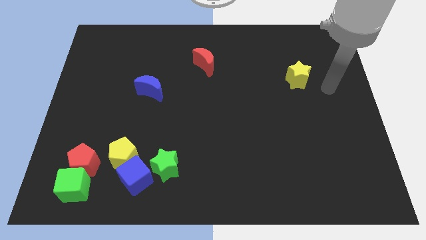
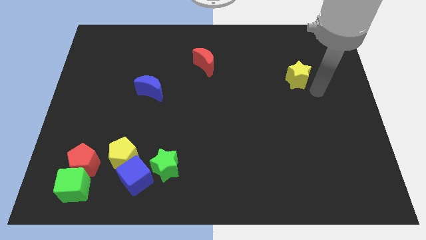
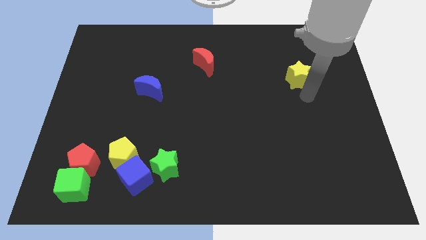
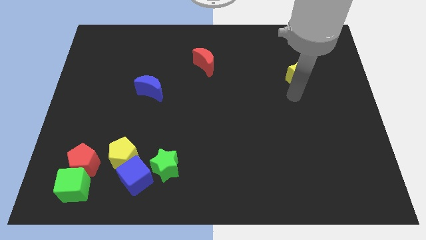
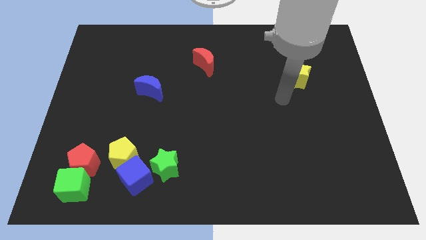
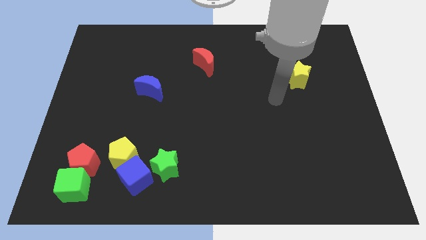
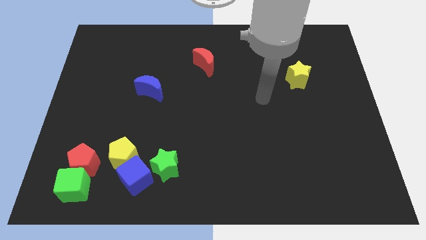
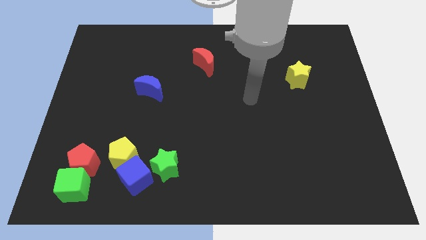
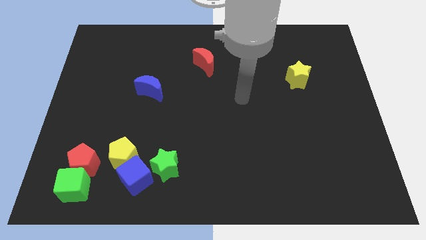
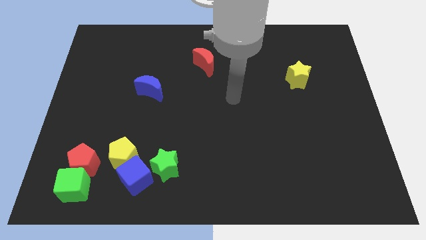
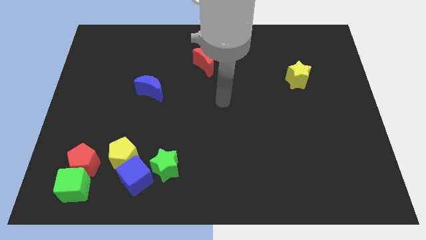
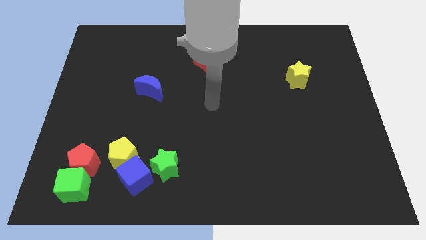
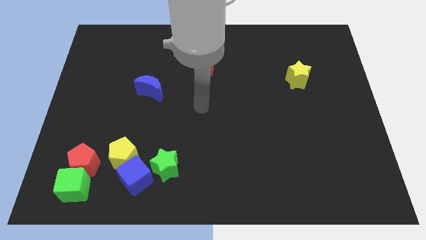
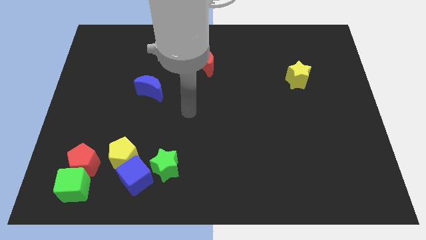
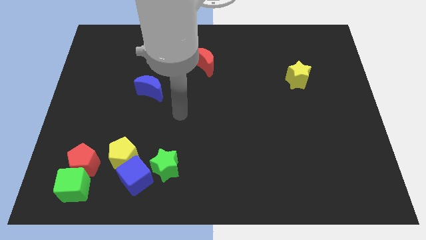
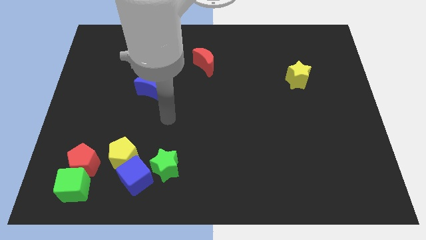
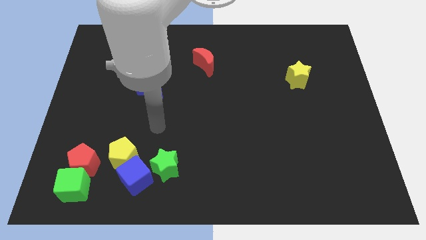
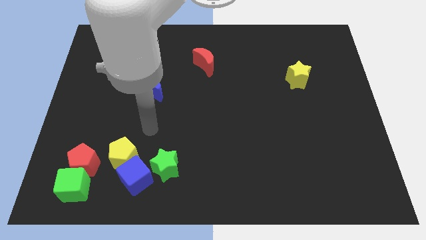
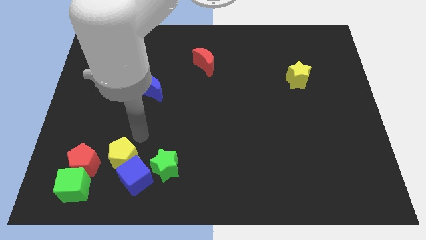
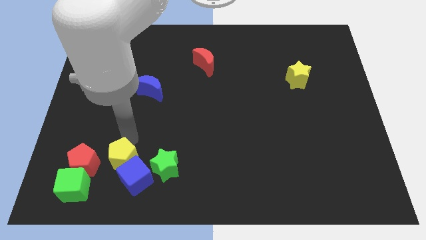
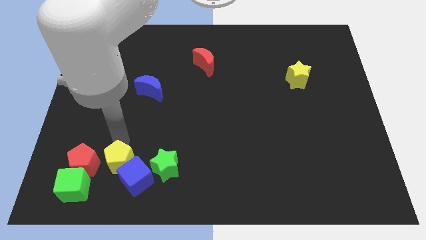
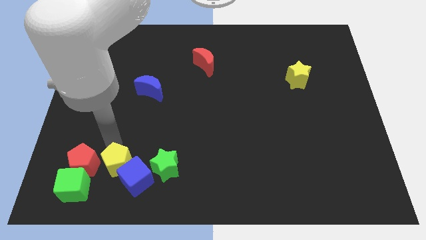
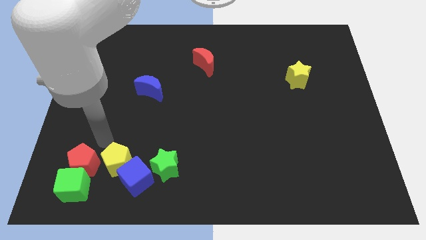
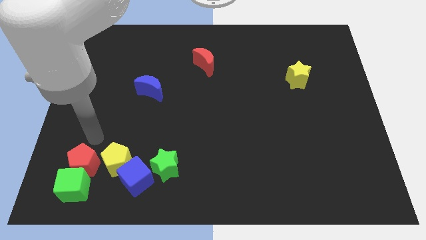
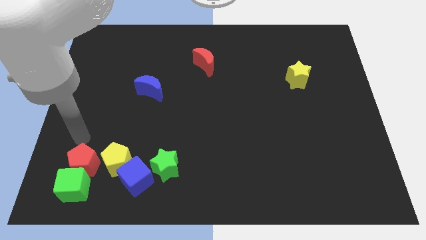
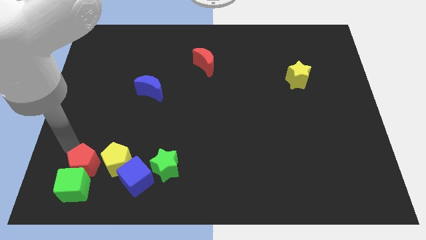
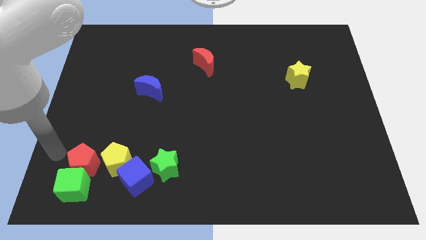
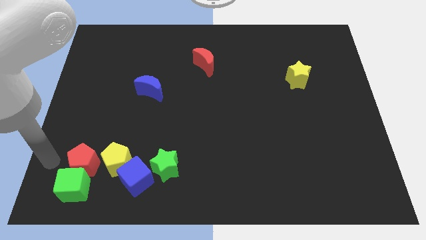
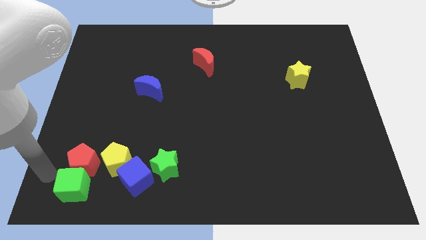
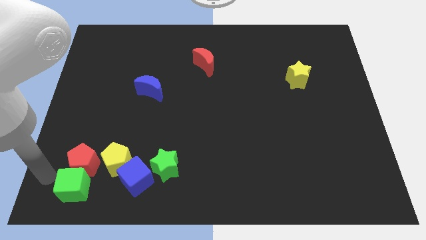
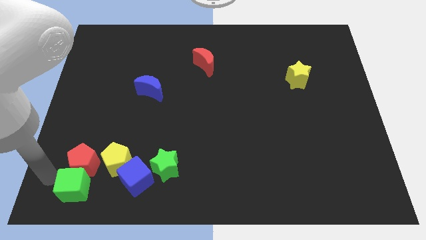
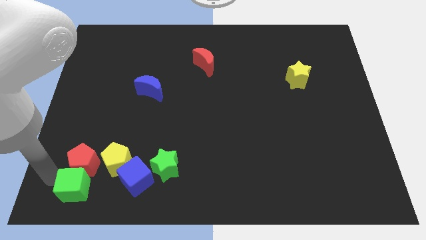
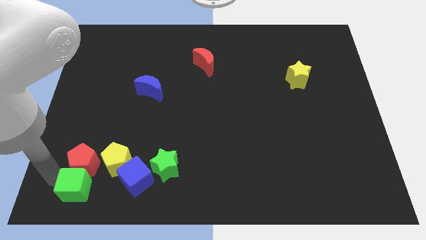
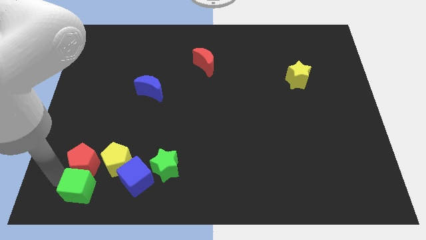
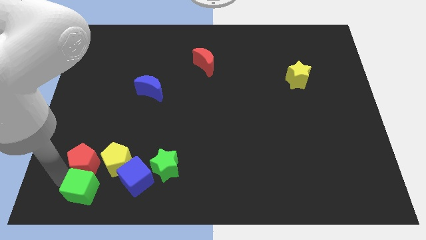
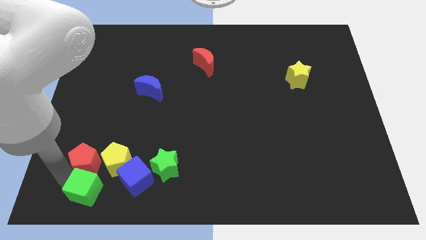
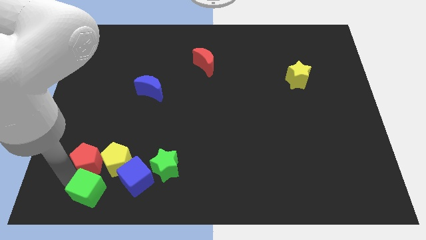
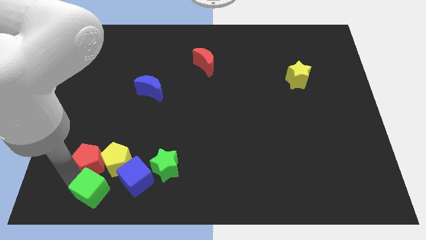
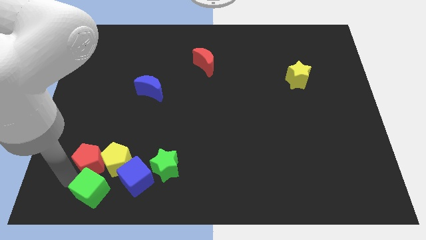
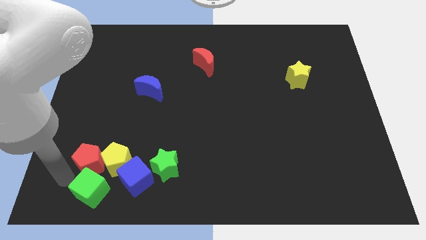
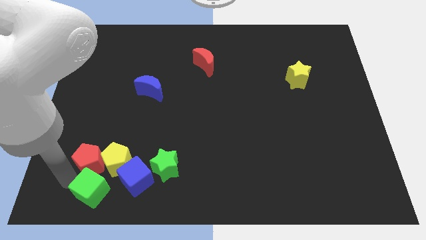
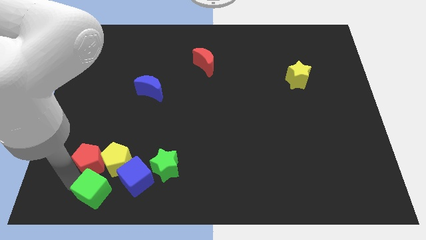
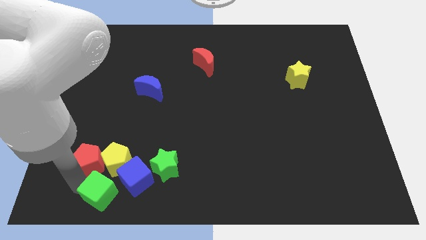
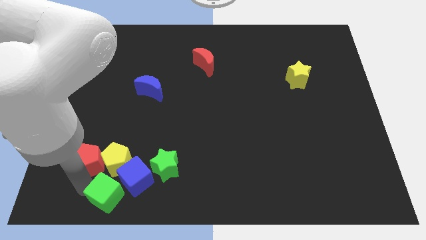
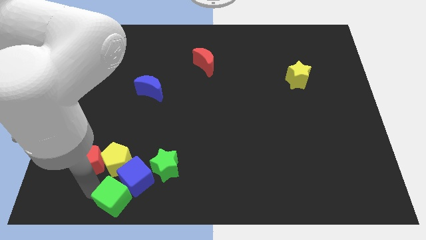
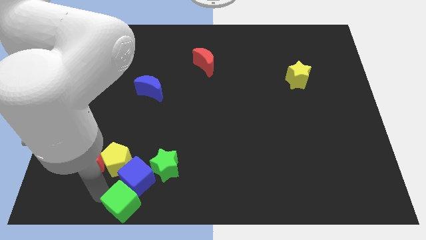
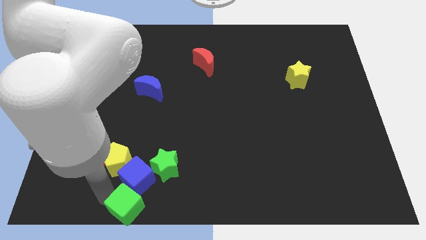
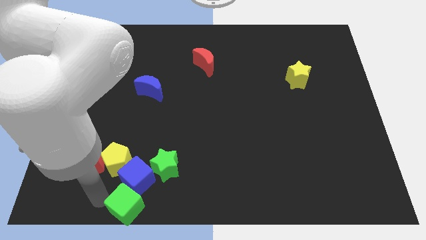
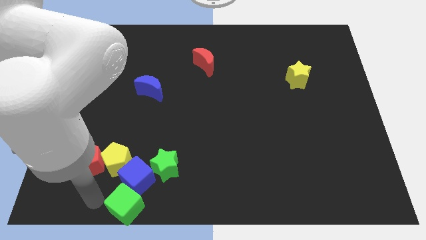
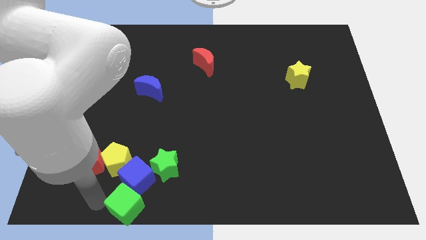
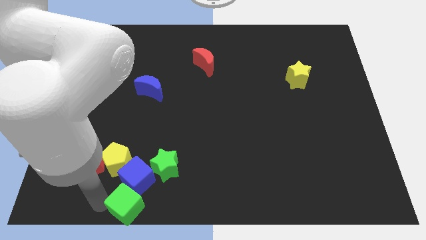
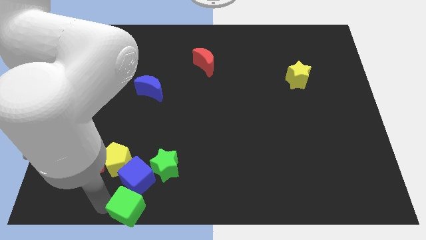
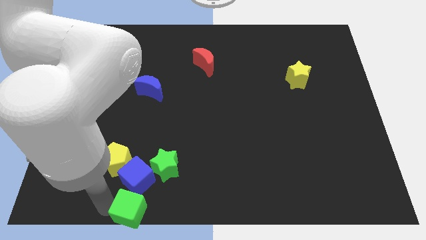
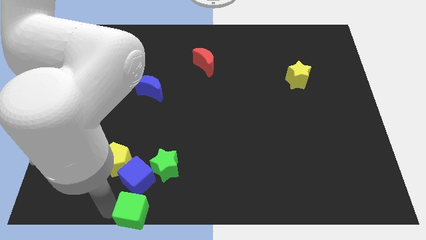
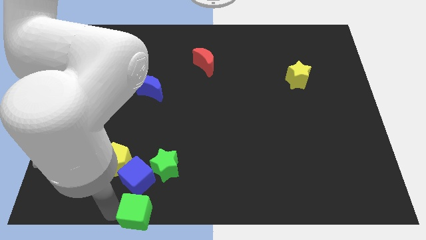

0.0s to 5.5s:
move the green cube to the bottom
